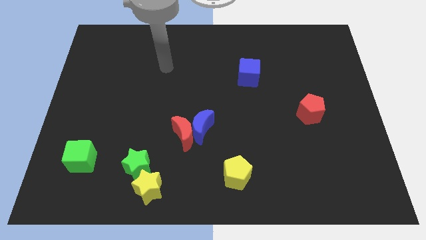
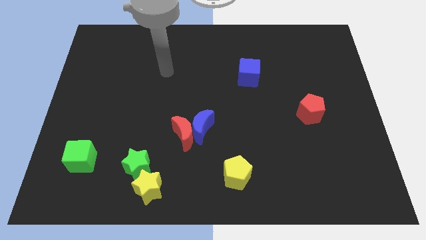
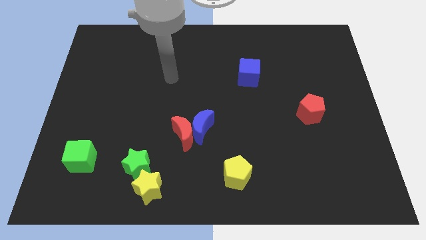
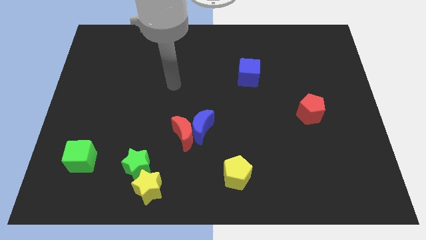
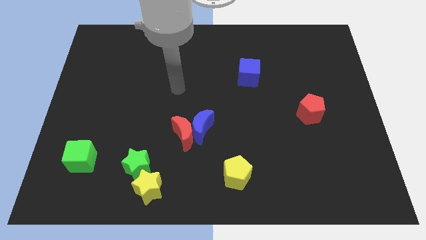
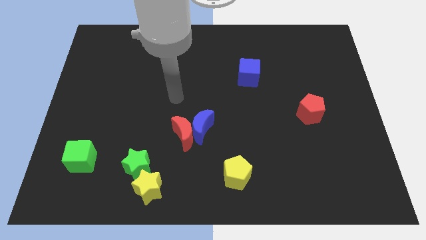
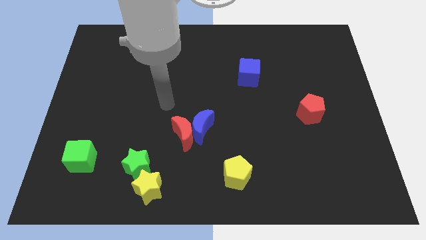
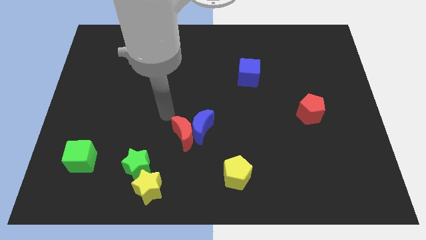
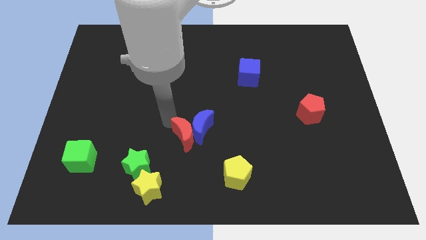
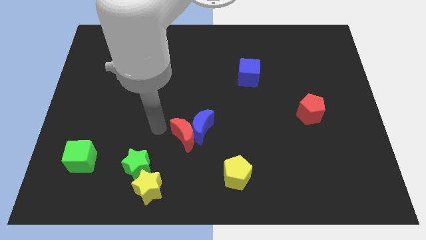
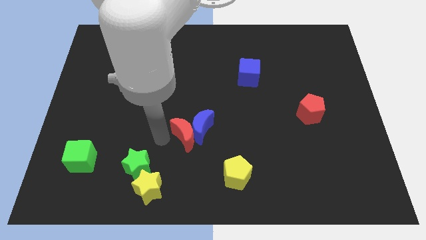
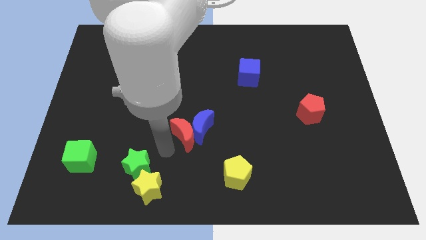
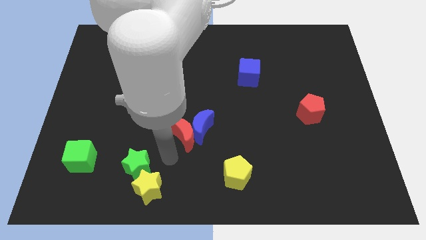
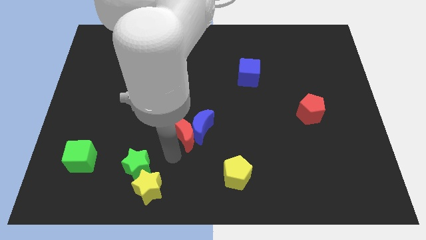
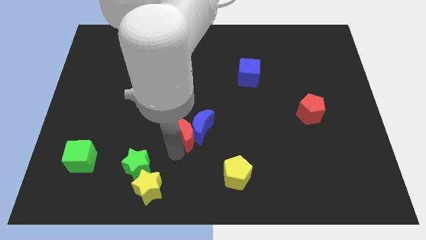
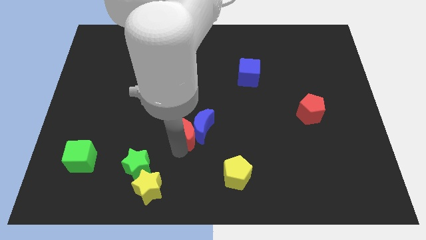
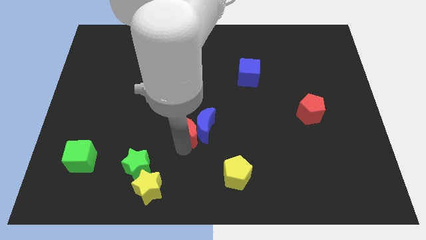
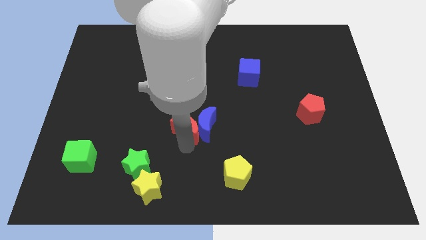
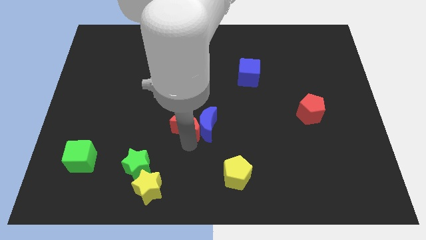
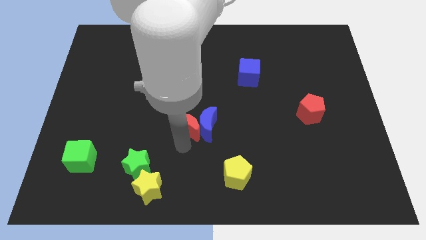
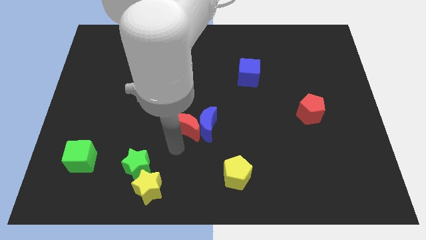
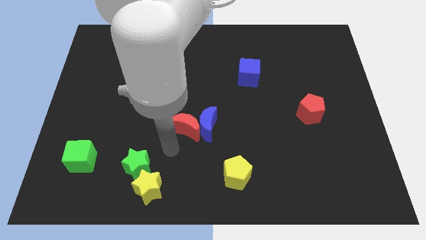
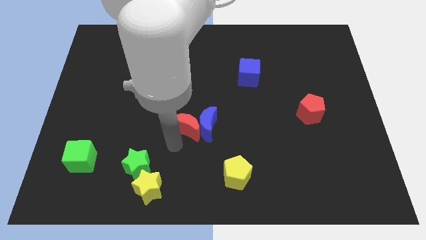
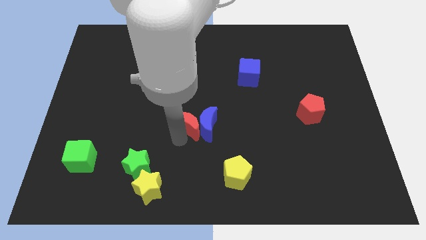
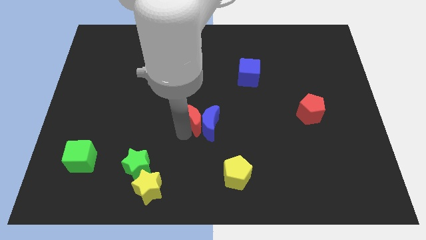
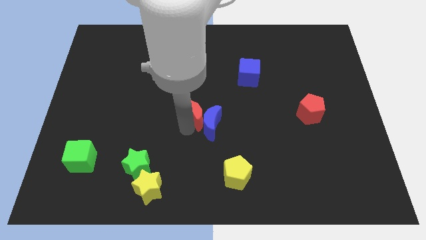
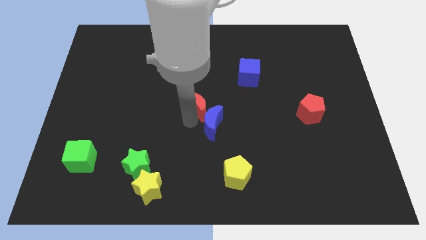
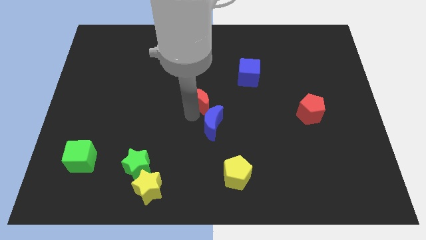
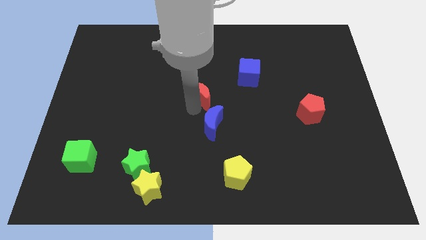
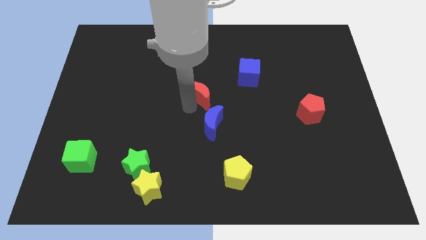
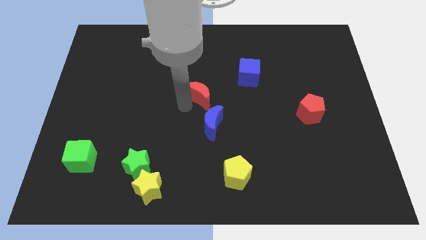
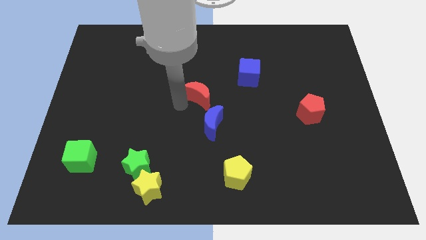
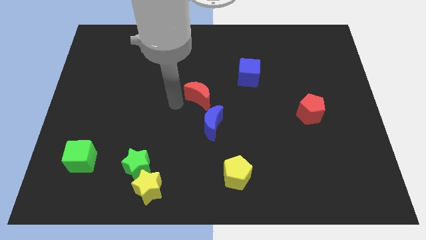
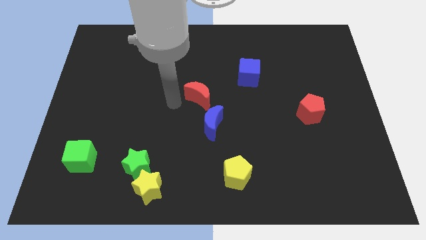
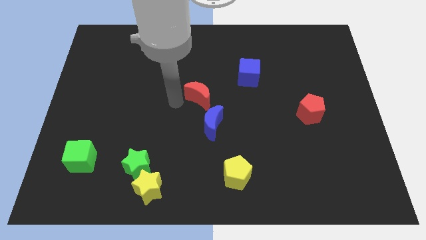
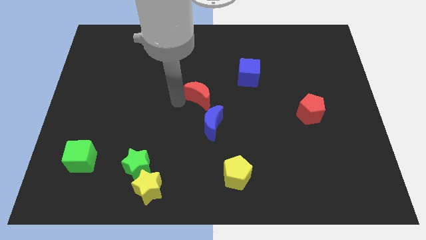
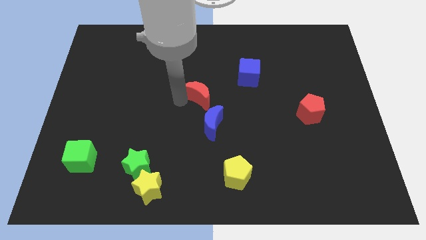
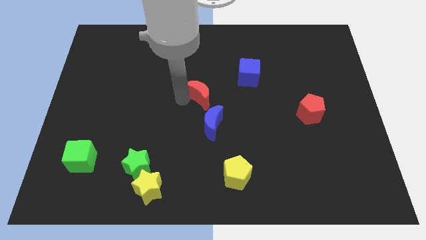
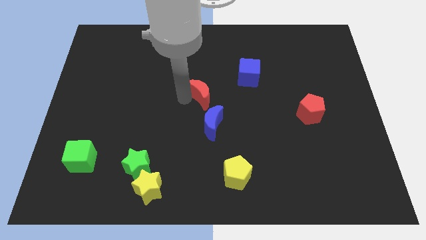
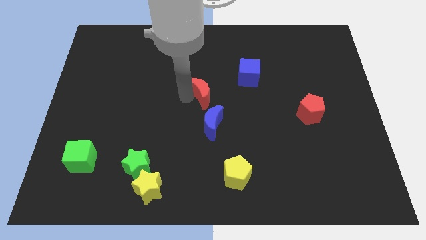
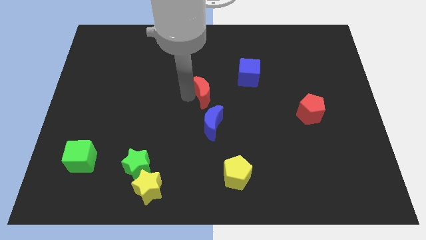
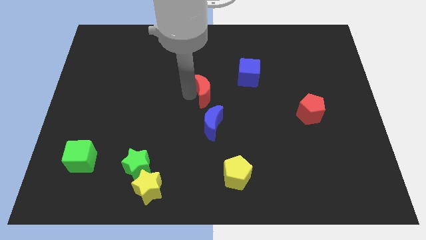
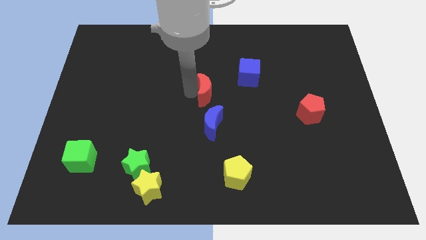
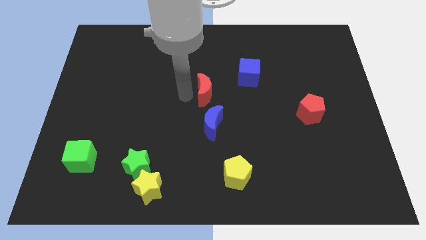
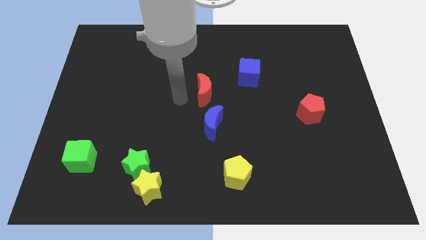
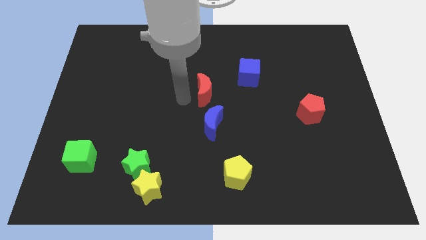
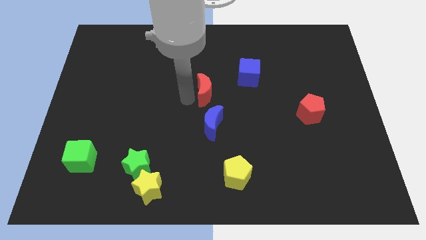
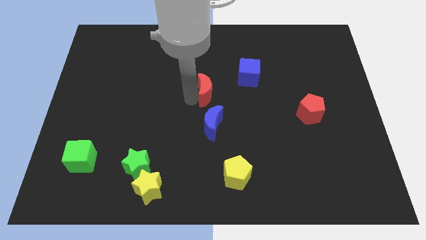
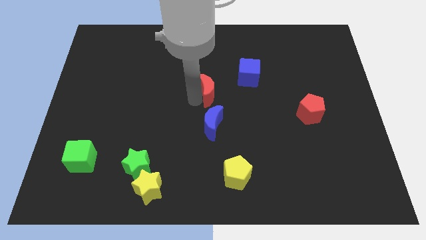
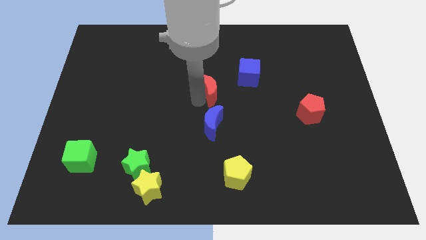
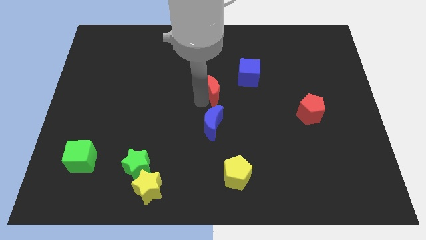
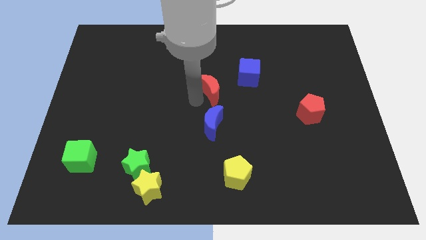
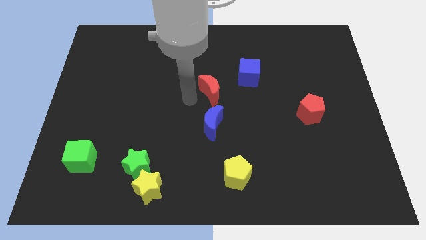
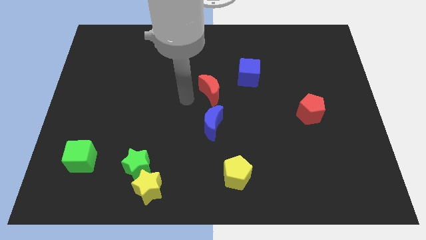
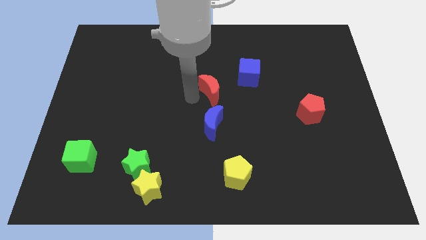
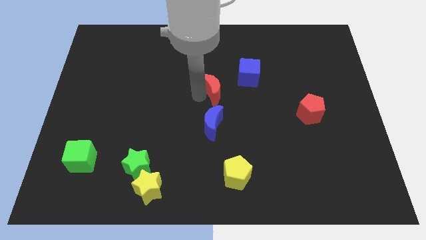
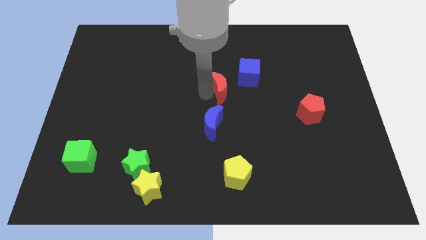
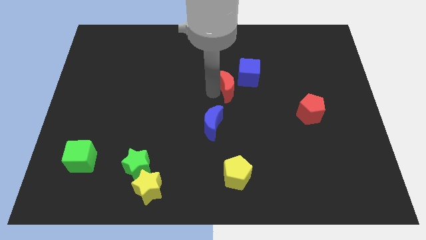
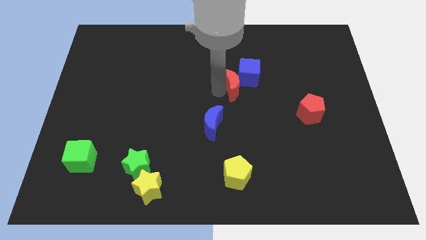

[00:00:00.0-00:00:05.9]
slide the red moon towards the blue cube

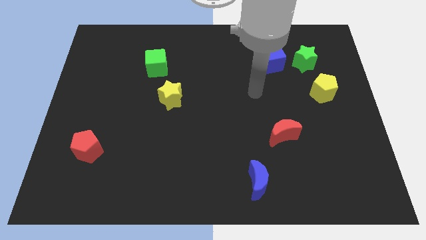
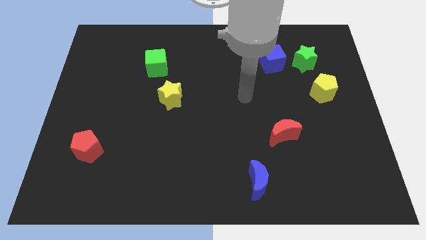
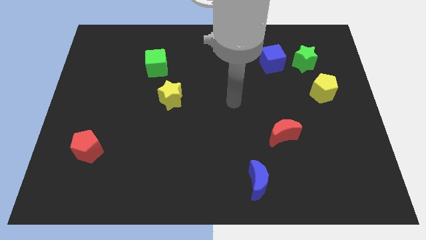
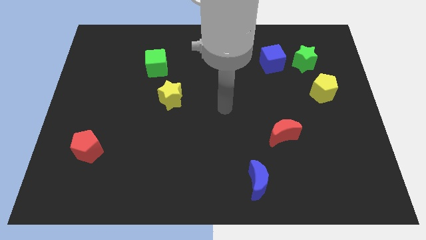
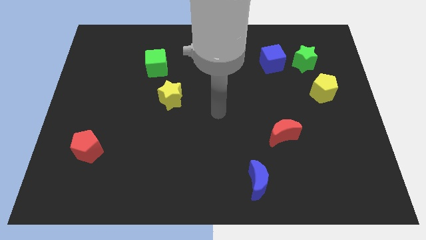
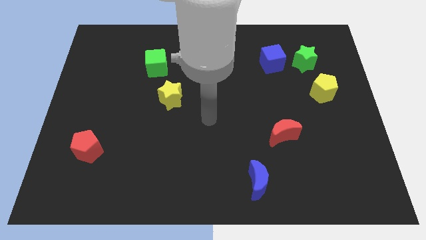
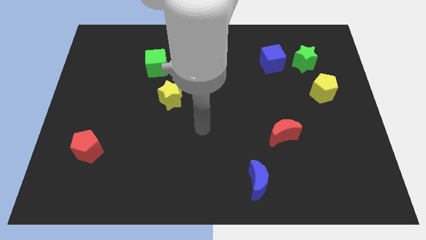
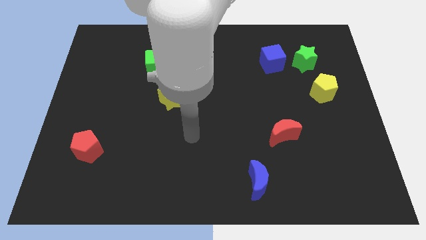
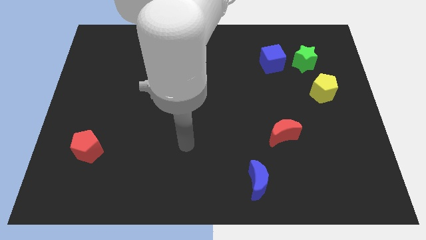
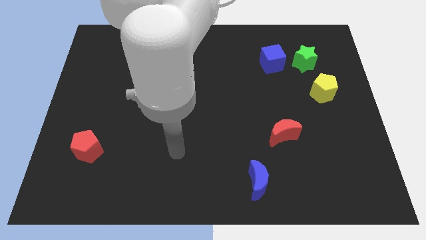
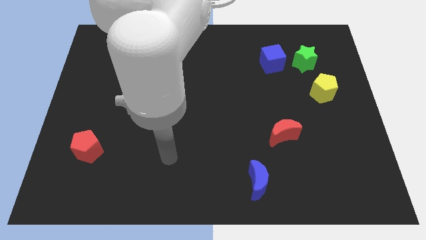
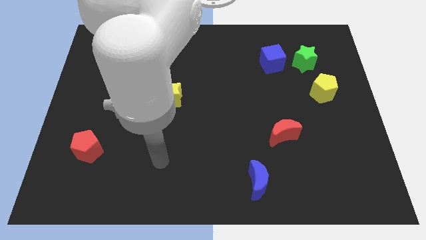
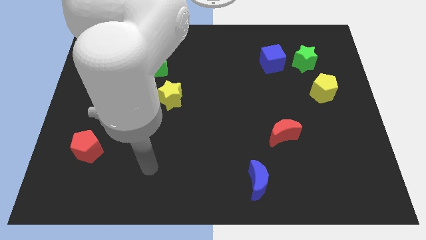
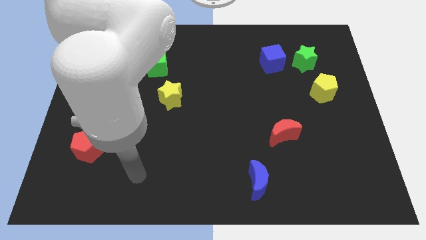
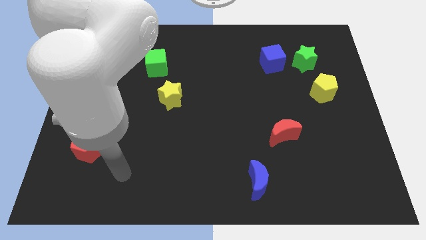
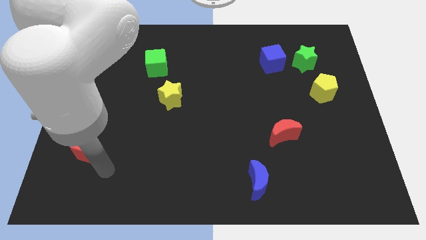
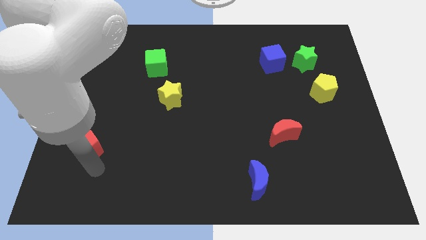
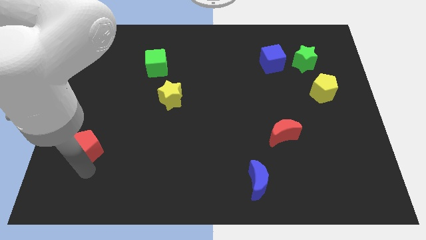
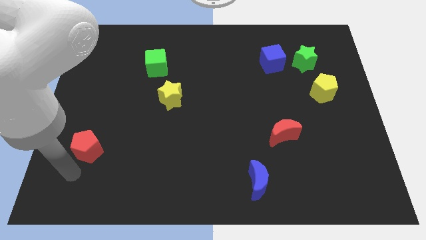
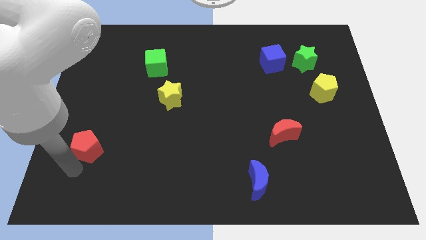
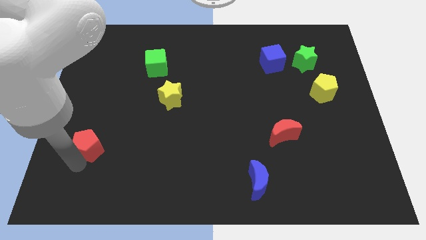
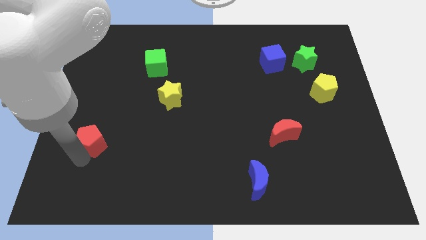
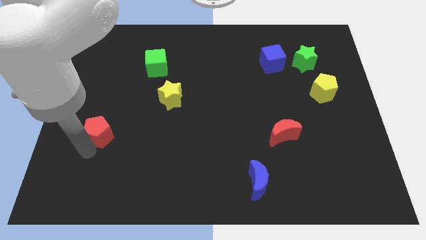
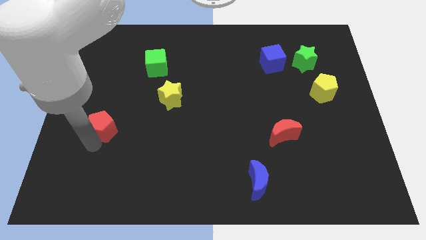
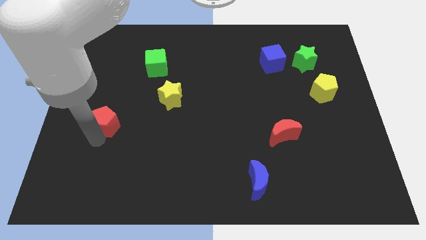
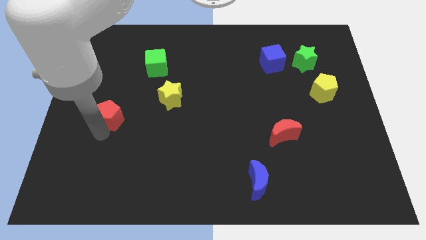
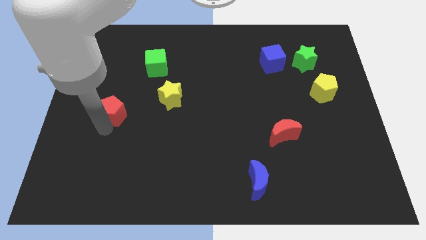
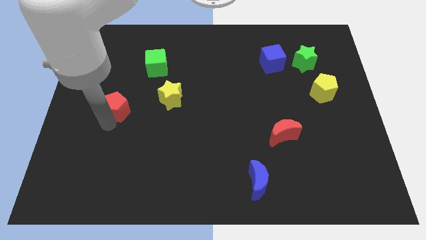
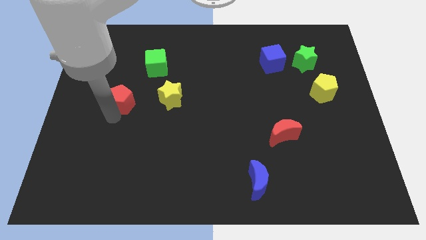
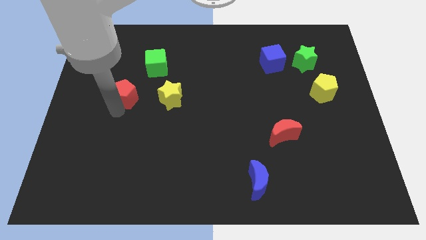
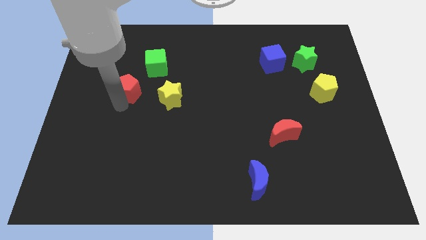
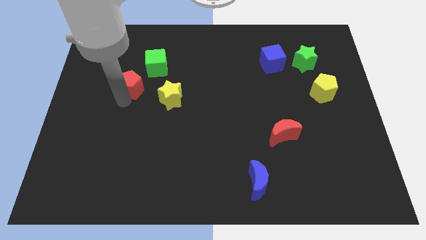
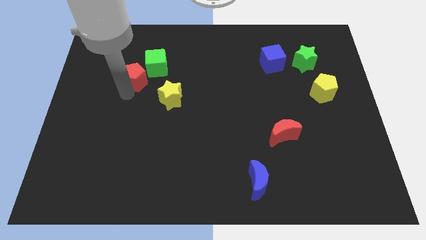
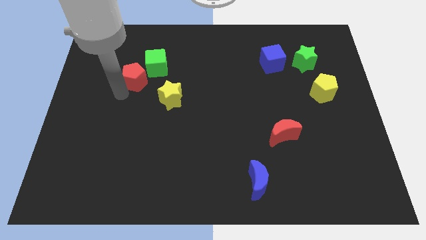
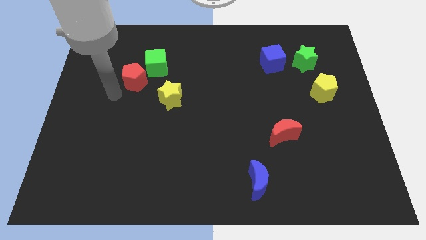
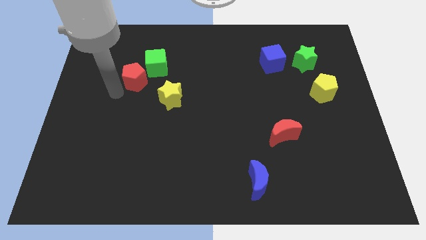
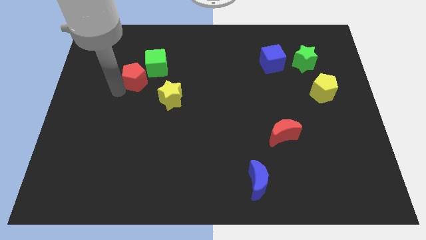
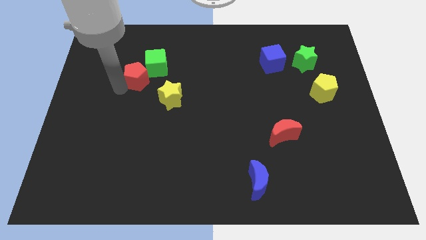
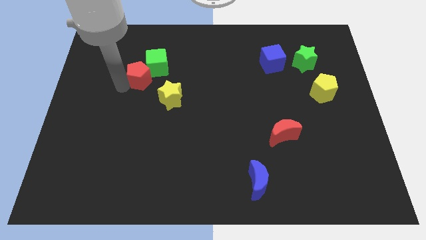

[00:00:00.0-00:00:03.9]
move the red pentagon towards the green cube
